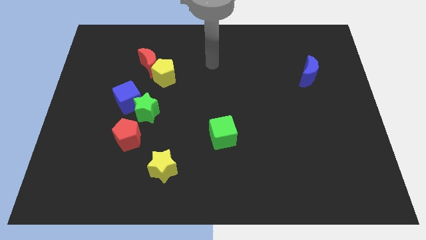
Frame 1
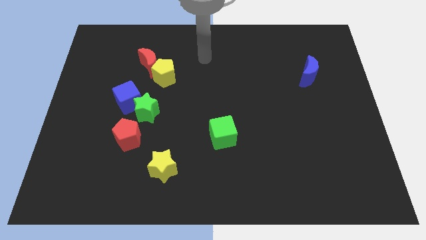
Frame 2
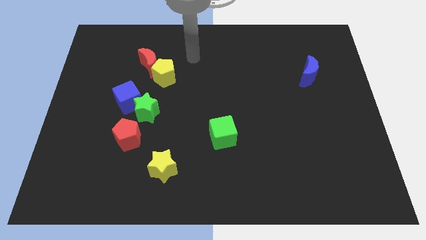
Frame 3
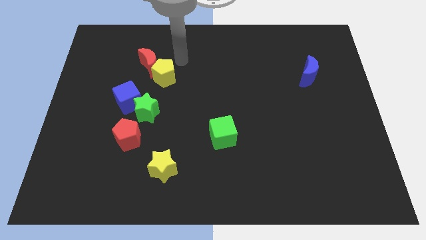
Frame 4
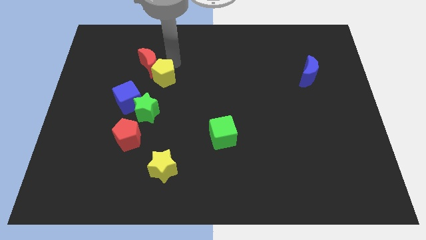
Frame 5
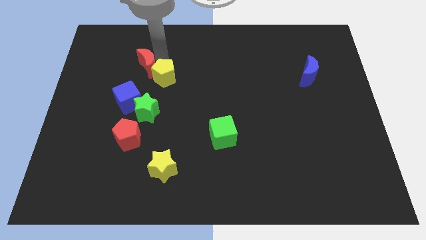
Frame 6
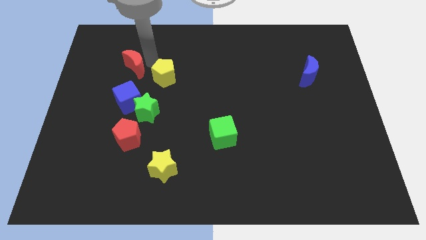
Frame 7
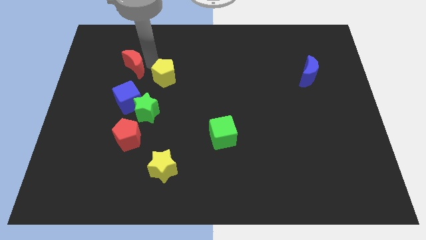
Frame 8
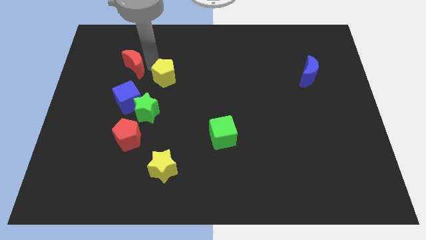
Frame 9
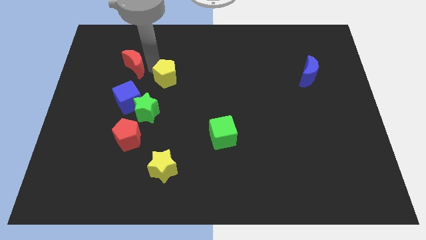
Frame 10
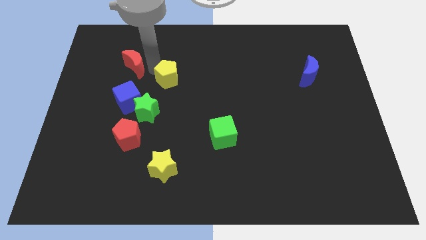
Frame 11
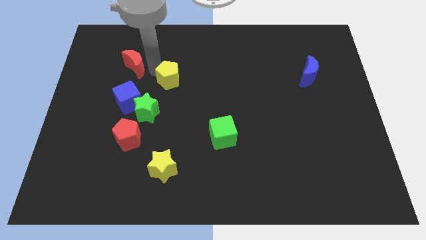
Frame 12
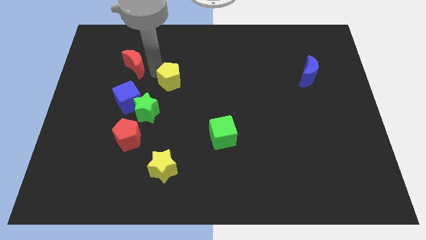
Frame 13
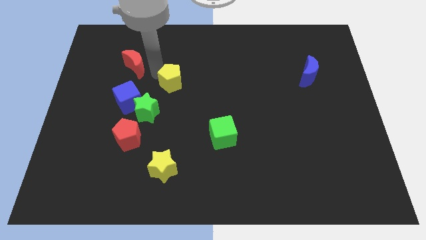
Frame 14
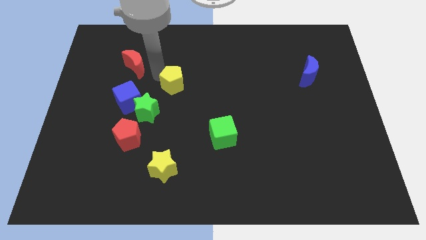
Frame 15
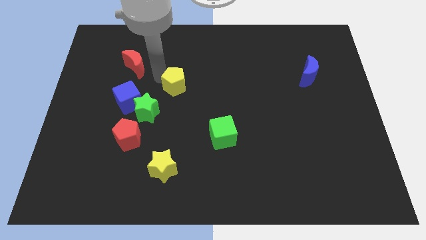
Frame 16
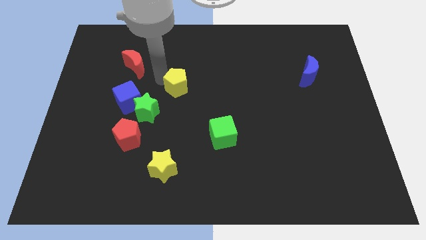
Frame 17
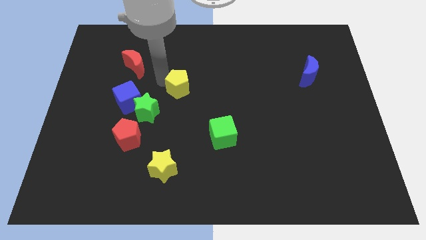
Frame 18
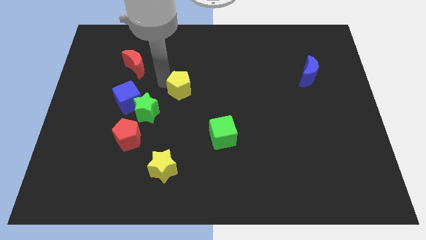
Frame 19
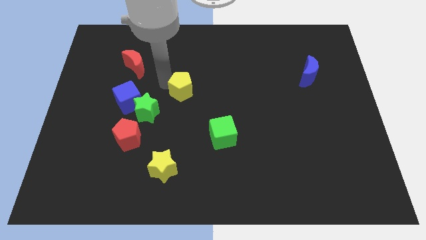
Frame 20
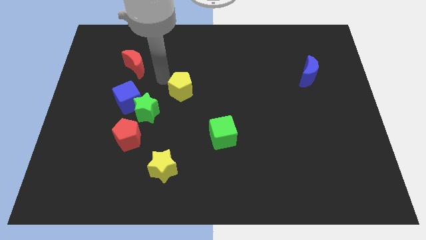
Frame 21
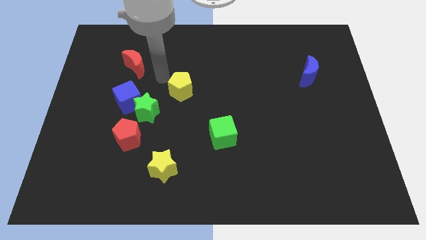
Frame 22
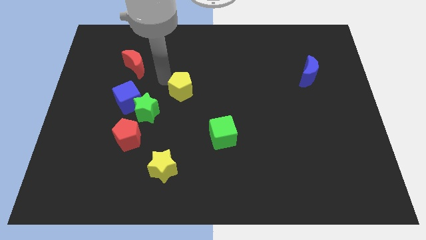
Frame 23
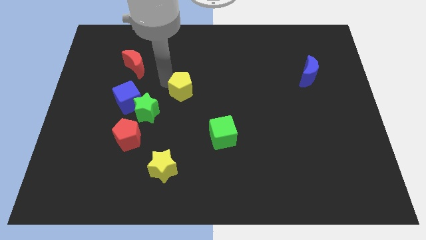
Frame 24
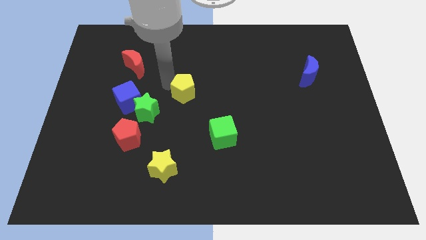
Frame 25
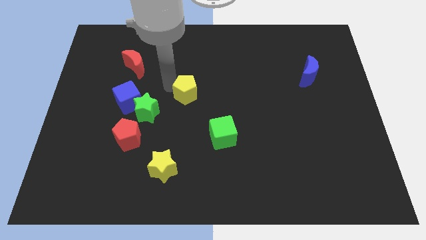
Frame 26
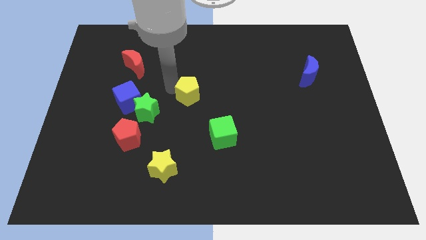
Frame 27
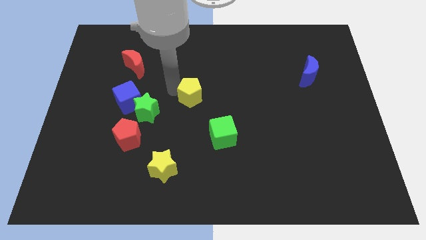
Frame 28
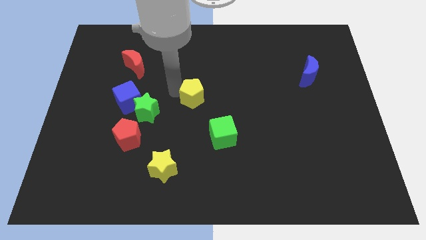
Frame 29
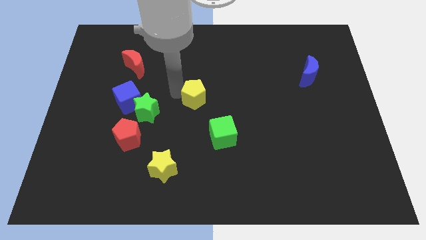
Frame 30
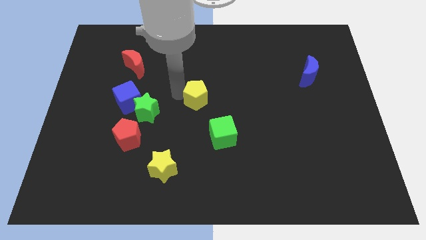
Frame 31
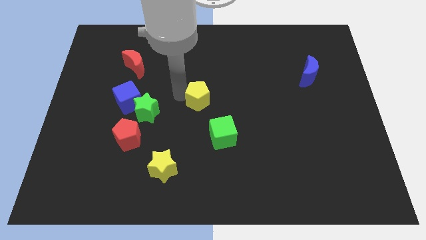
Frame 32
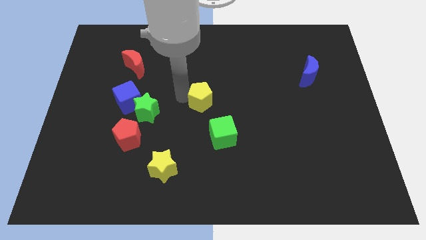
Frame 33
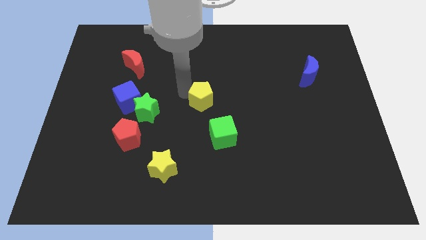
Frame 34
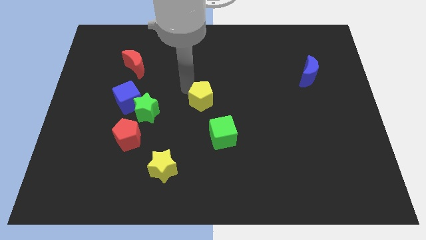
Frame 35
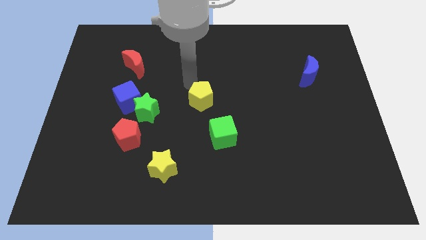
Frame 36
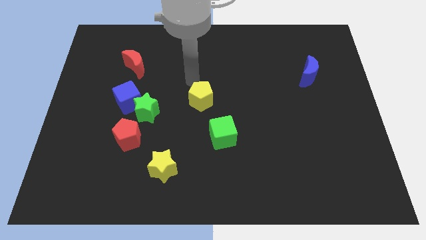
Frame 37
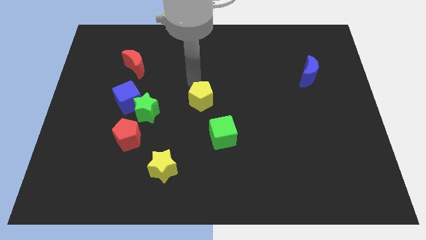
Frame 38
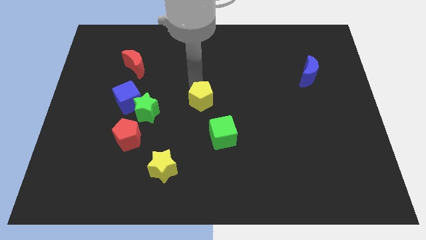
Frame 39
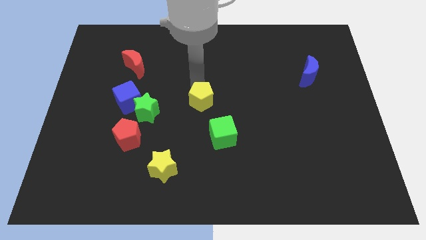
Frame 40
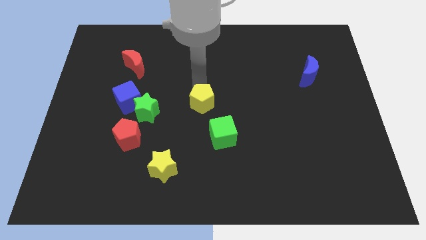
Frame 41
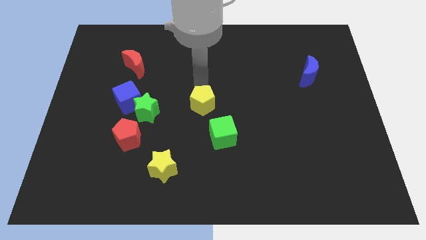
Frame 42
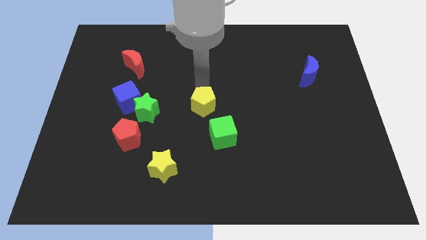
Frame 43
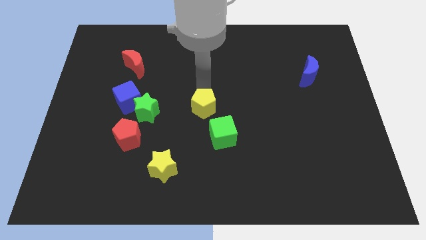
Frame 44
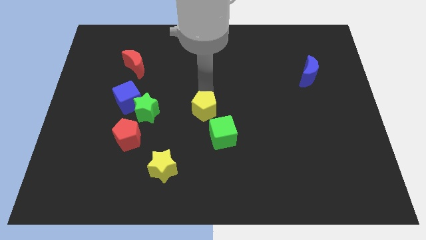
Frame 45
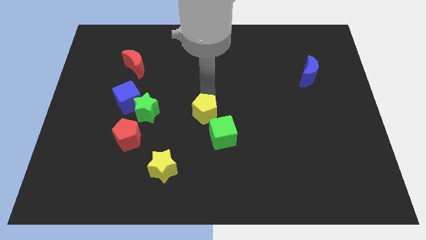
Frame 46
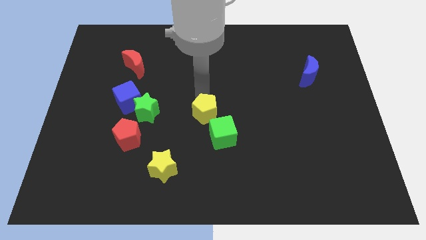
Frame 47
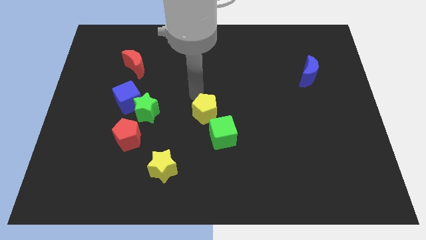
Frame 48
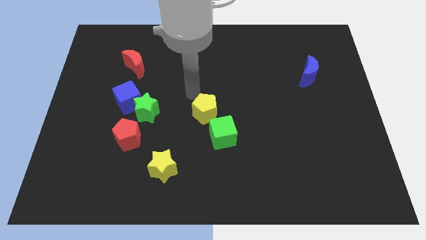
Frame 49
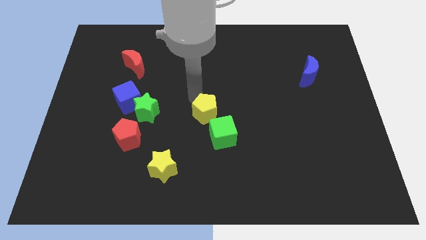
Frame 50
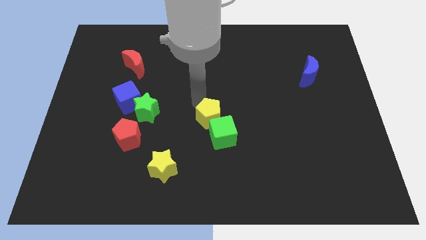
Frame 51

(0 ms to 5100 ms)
slide the yellow pentagon next to the green cube

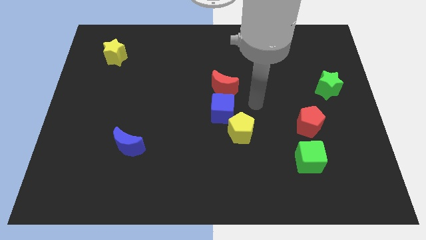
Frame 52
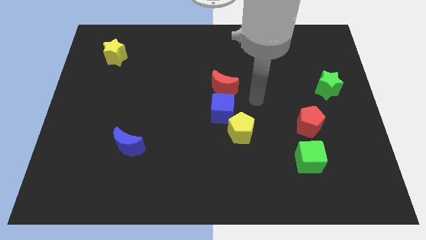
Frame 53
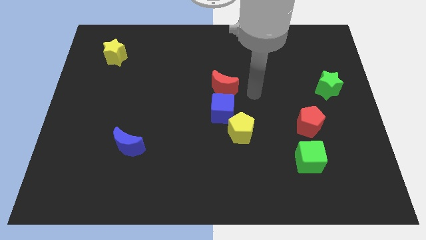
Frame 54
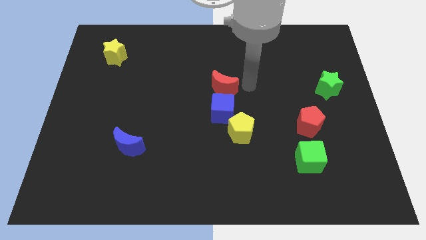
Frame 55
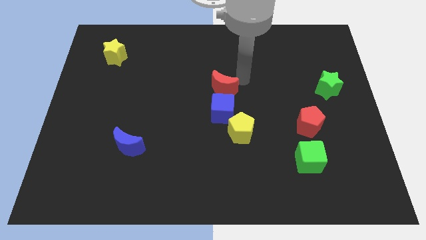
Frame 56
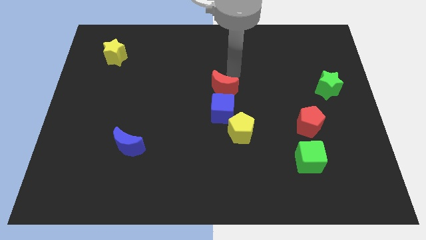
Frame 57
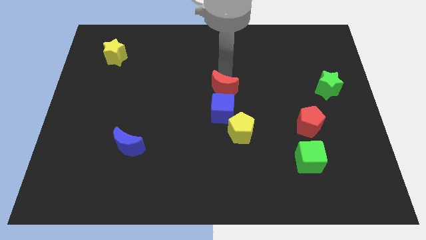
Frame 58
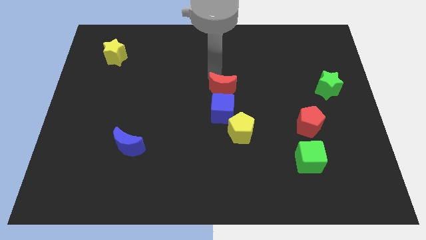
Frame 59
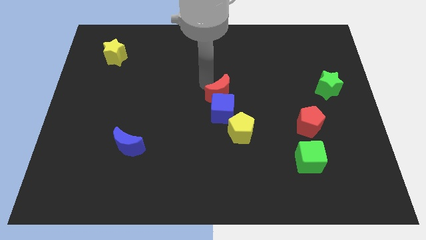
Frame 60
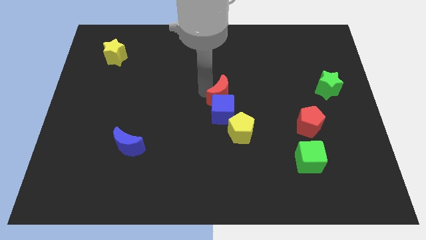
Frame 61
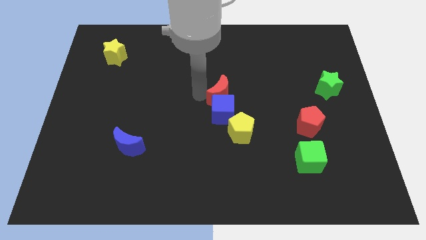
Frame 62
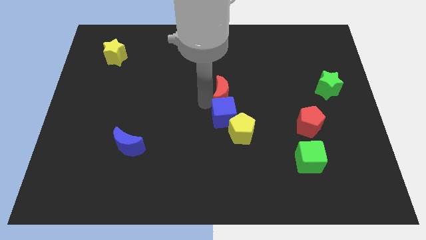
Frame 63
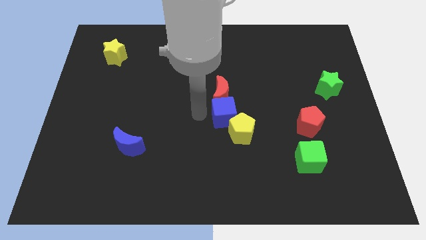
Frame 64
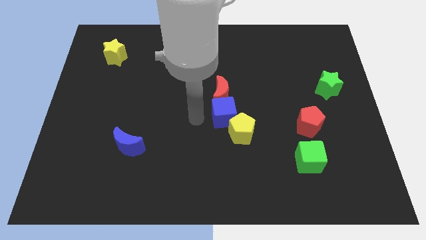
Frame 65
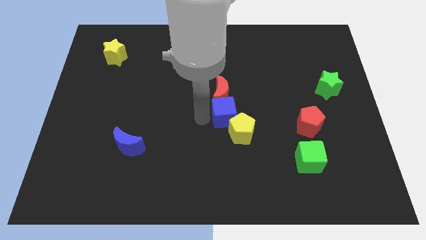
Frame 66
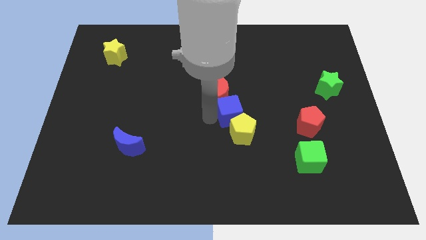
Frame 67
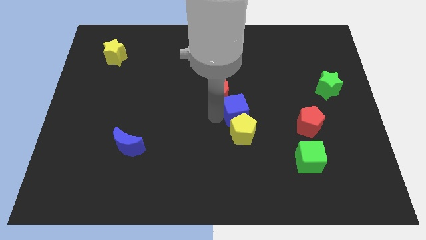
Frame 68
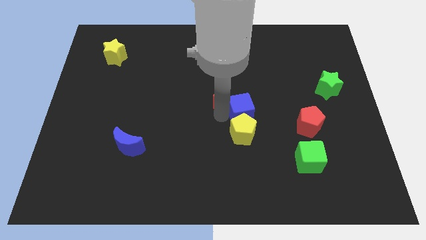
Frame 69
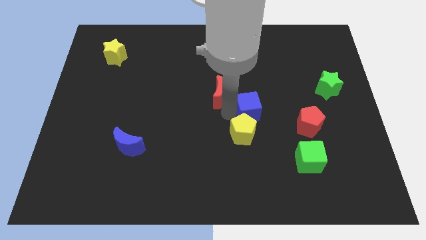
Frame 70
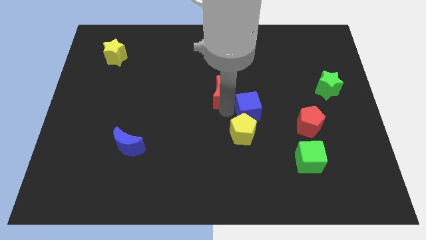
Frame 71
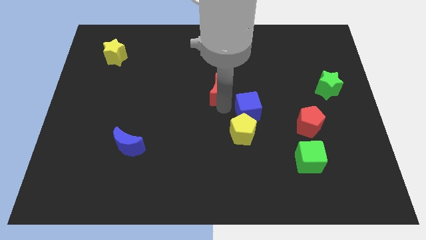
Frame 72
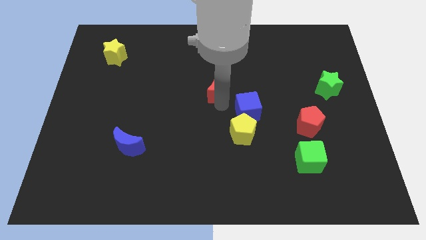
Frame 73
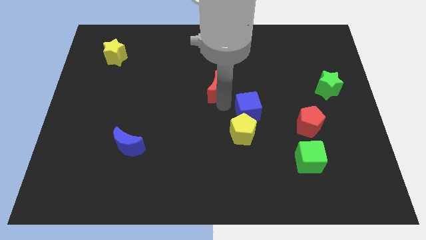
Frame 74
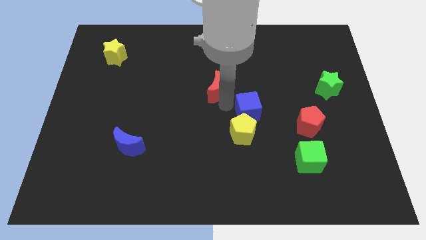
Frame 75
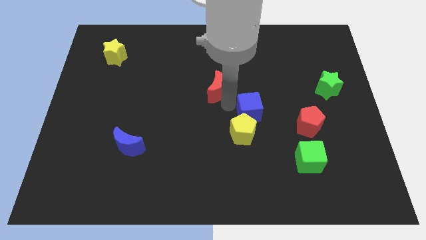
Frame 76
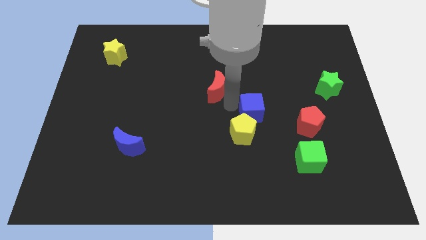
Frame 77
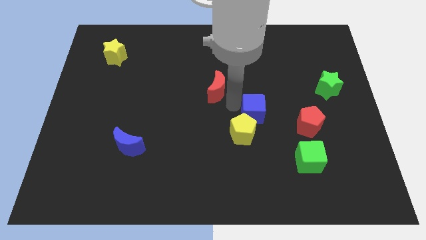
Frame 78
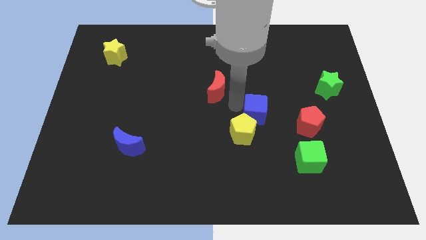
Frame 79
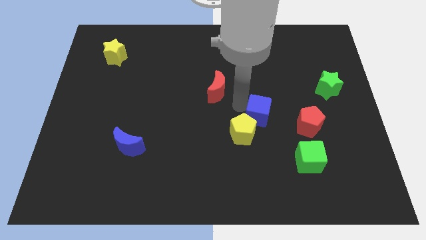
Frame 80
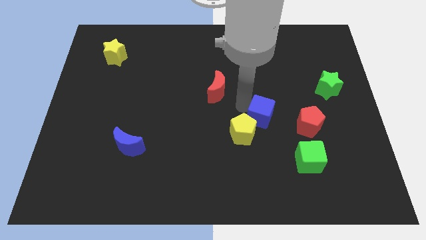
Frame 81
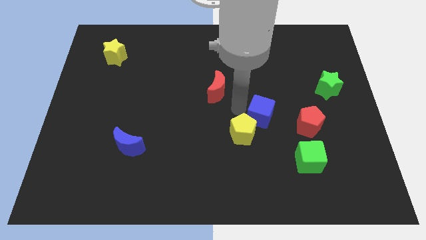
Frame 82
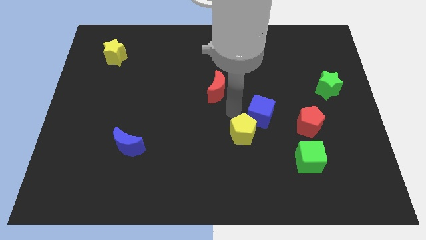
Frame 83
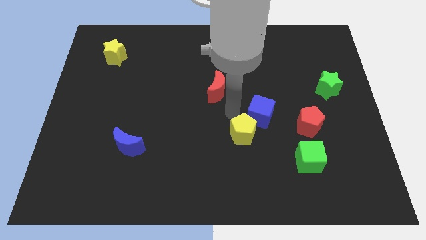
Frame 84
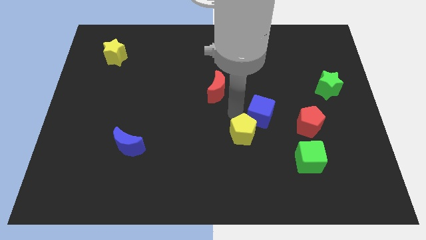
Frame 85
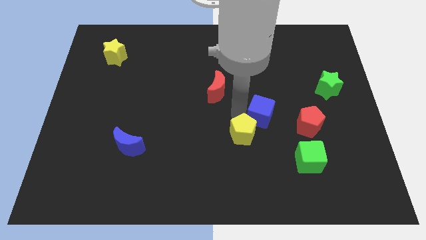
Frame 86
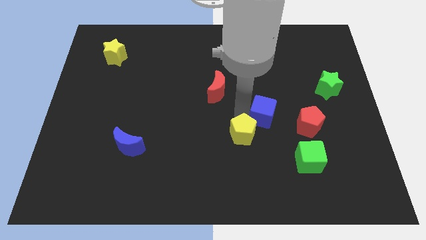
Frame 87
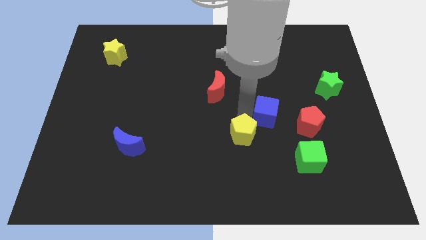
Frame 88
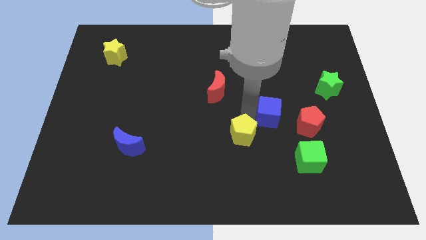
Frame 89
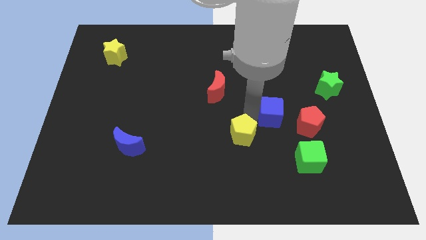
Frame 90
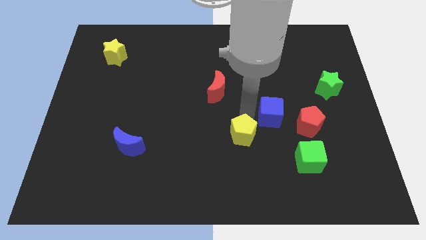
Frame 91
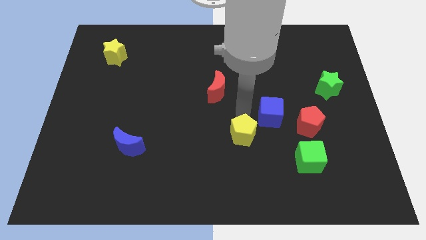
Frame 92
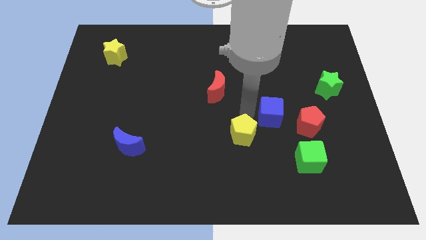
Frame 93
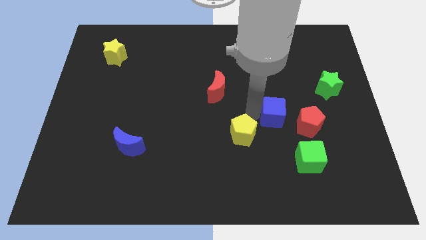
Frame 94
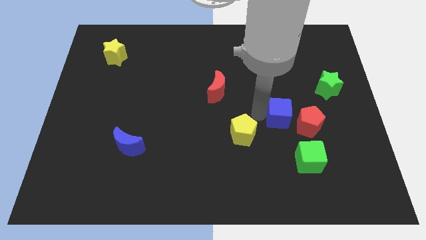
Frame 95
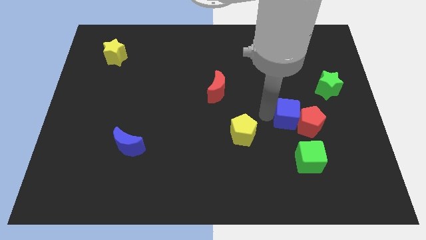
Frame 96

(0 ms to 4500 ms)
put the blue cube to the red pentagon
